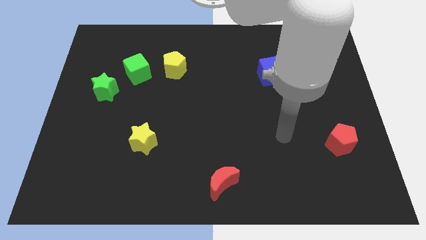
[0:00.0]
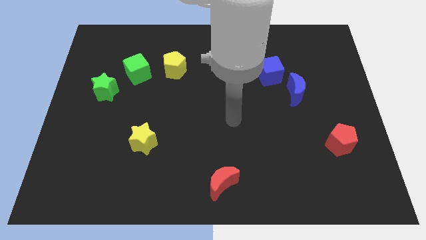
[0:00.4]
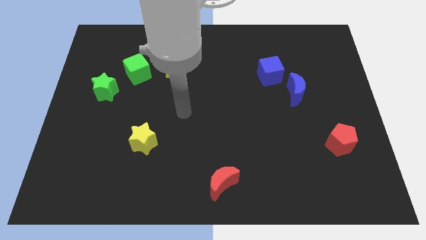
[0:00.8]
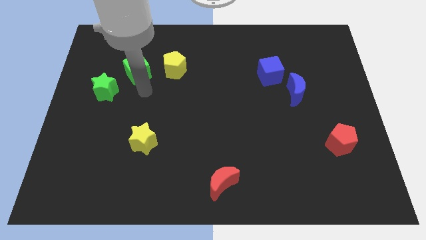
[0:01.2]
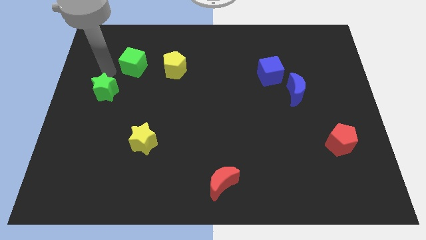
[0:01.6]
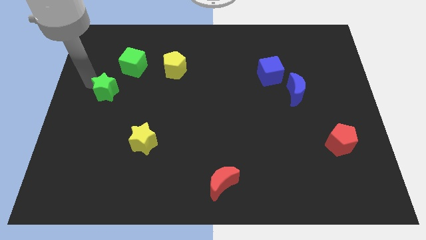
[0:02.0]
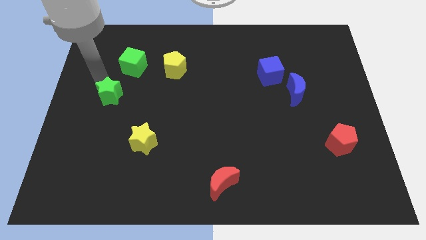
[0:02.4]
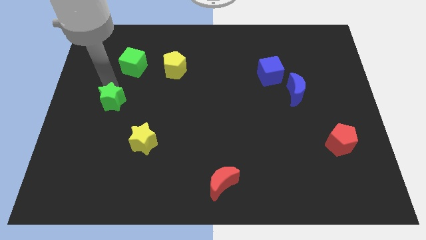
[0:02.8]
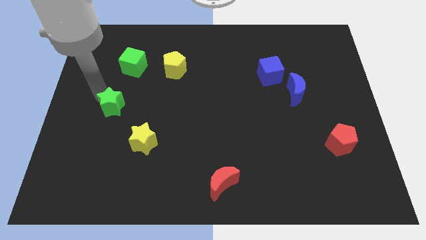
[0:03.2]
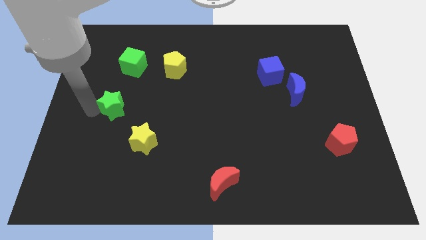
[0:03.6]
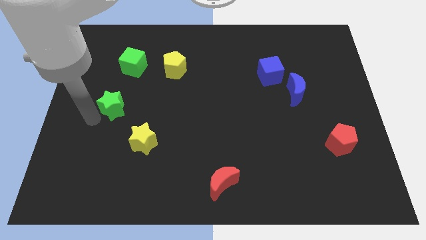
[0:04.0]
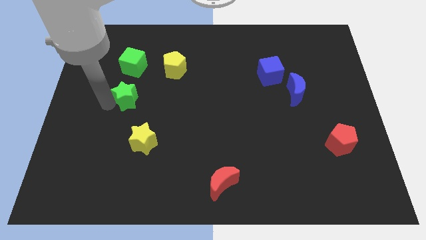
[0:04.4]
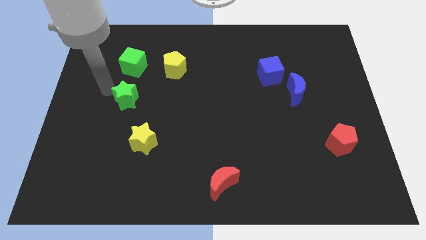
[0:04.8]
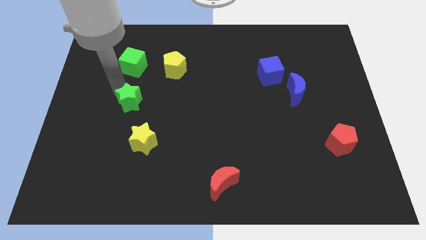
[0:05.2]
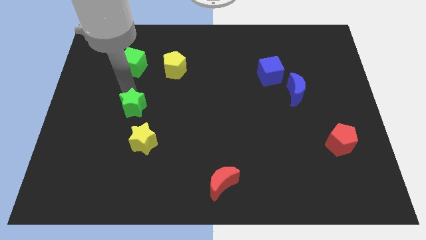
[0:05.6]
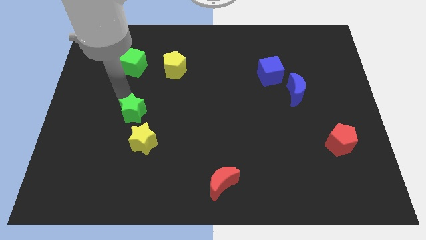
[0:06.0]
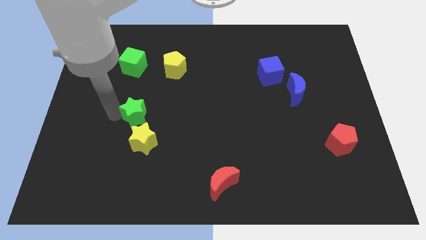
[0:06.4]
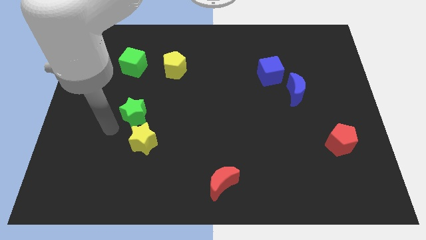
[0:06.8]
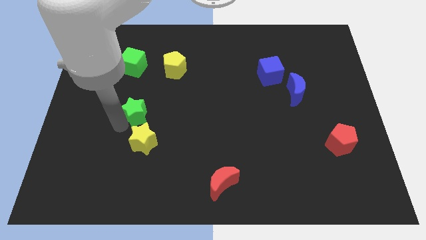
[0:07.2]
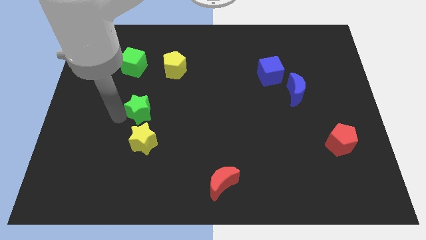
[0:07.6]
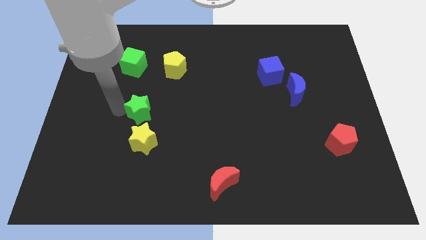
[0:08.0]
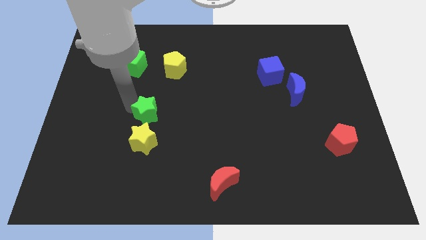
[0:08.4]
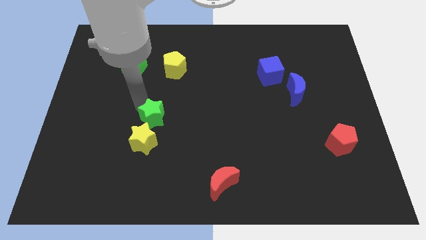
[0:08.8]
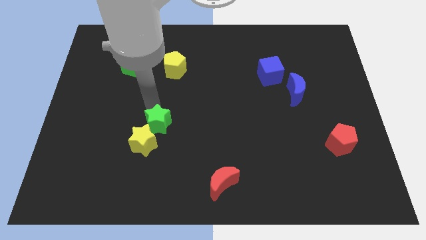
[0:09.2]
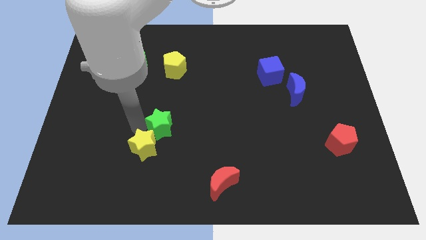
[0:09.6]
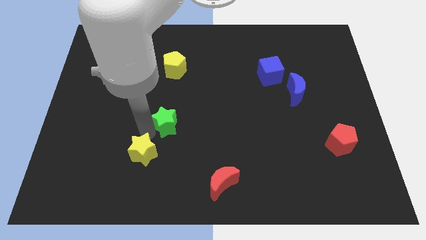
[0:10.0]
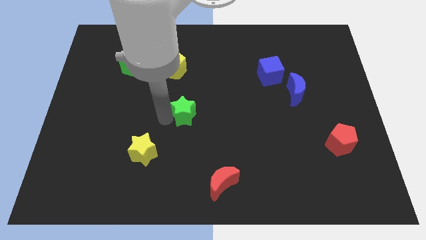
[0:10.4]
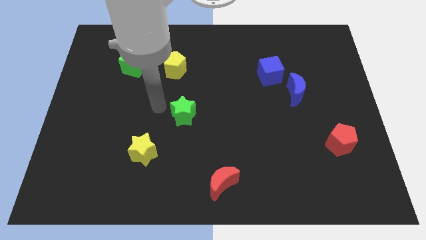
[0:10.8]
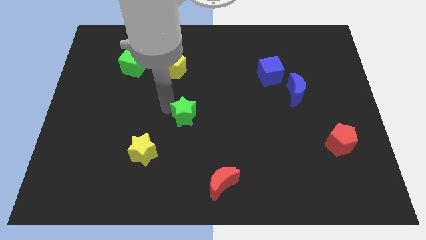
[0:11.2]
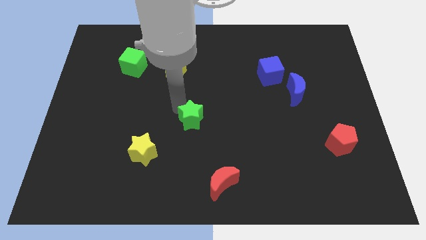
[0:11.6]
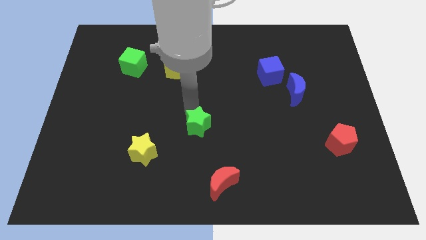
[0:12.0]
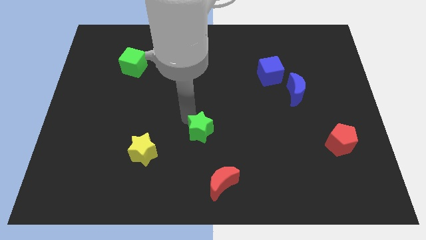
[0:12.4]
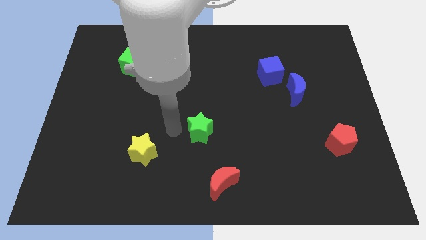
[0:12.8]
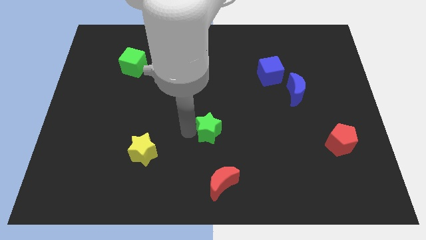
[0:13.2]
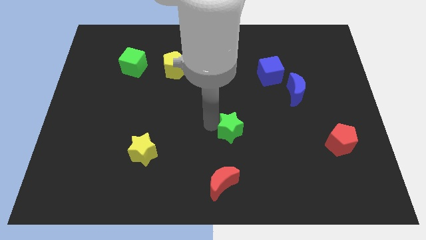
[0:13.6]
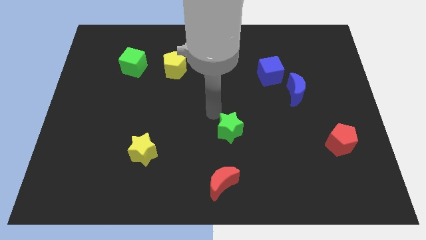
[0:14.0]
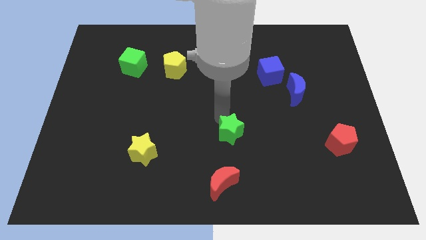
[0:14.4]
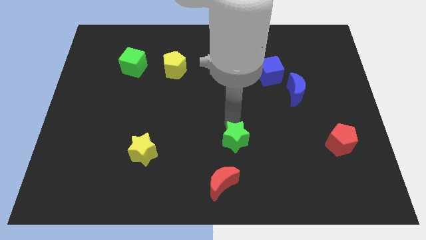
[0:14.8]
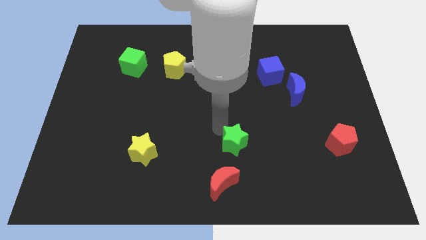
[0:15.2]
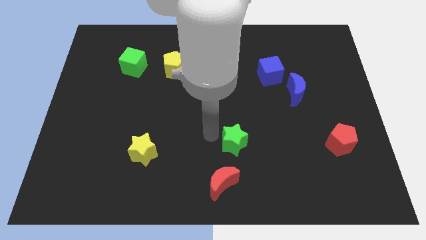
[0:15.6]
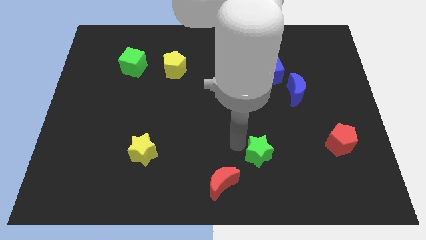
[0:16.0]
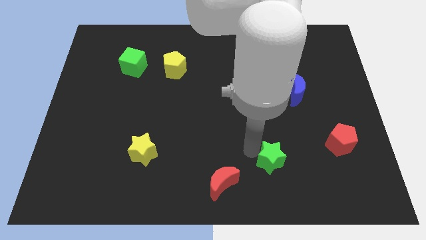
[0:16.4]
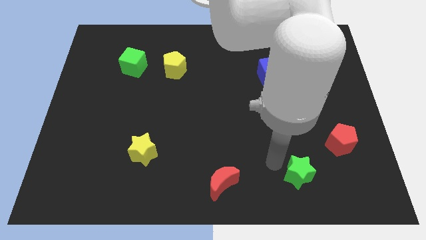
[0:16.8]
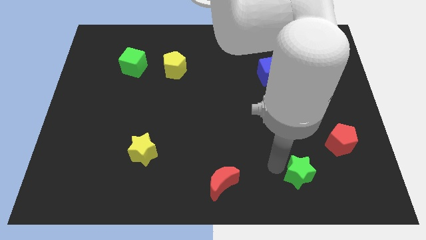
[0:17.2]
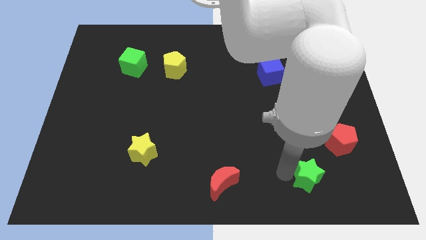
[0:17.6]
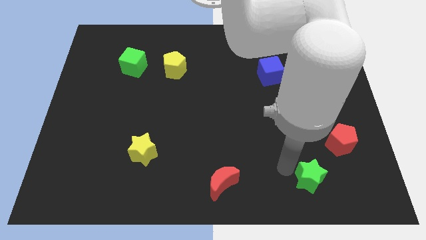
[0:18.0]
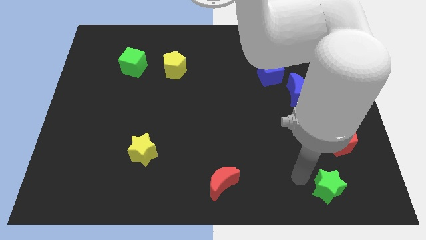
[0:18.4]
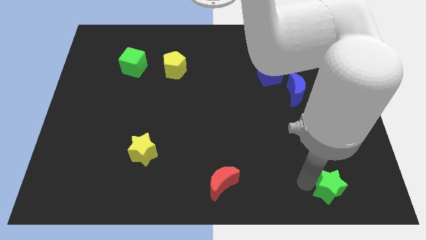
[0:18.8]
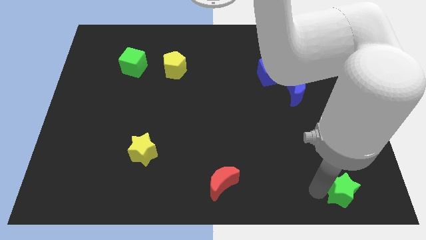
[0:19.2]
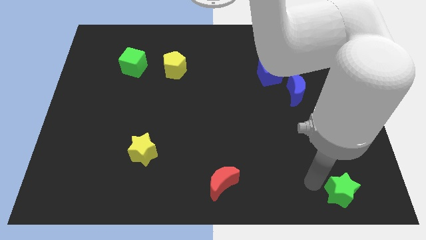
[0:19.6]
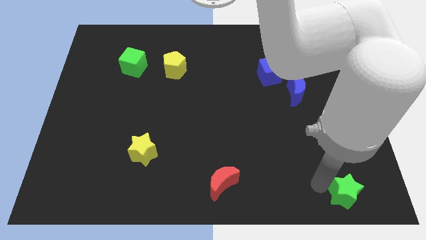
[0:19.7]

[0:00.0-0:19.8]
put the green star to the bottom right of the board
